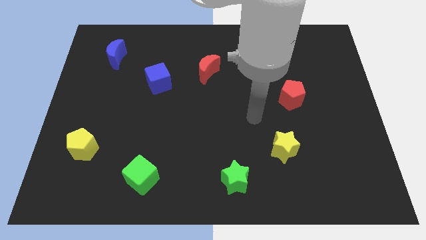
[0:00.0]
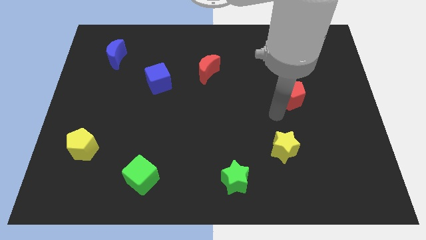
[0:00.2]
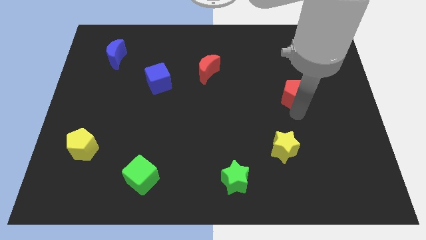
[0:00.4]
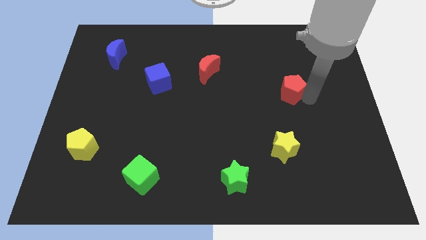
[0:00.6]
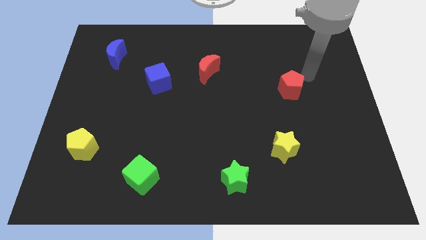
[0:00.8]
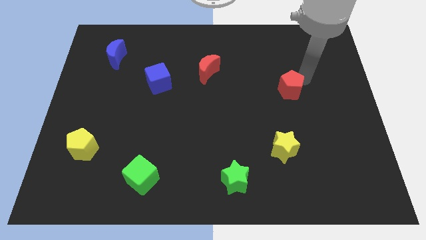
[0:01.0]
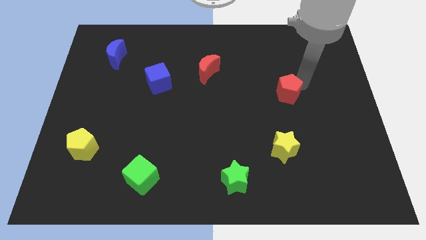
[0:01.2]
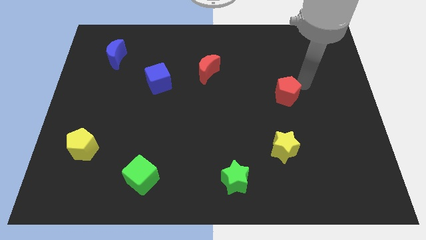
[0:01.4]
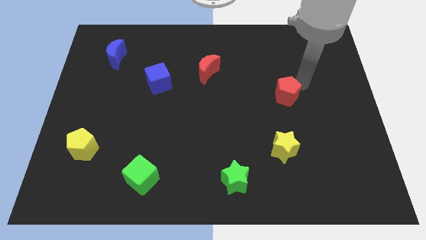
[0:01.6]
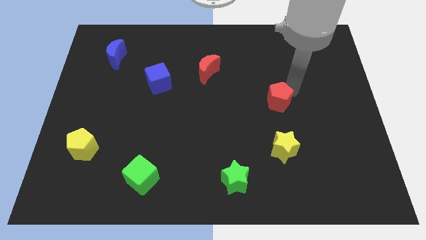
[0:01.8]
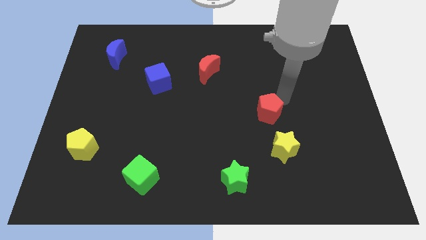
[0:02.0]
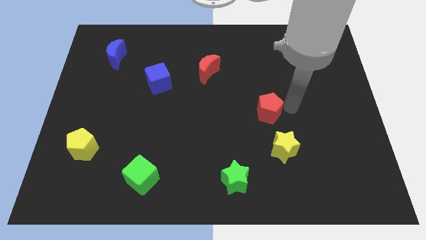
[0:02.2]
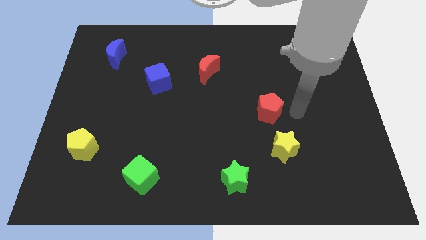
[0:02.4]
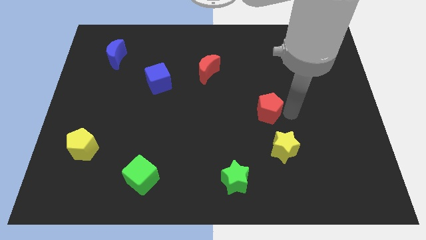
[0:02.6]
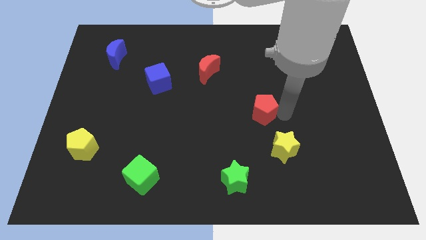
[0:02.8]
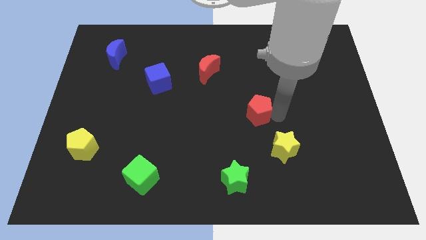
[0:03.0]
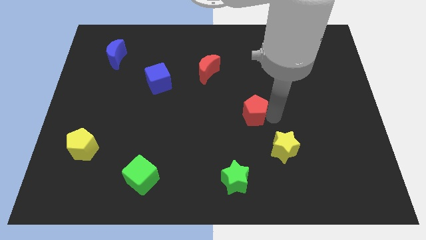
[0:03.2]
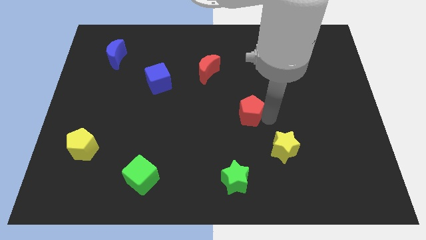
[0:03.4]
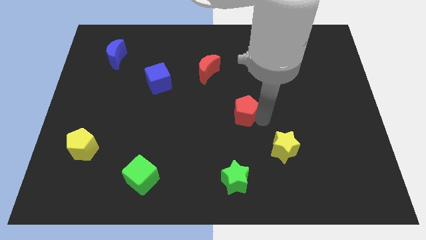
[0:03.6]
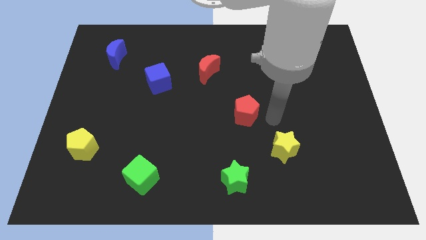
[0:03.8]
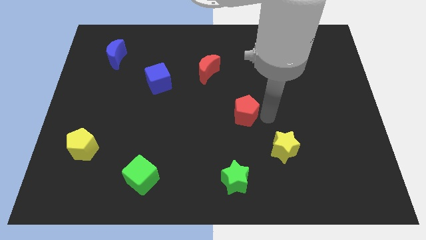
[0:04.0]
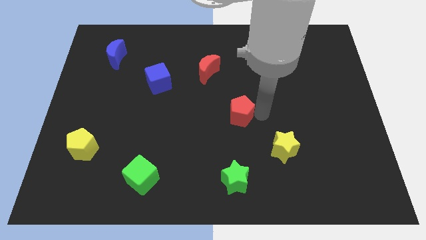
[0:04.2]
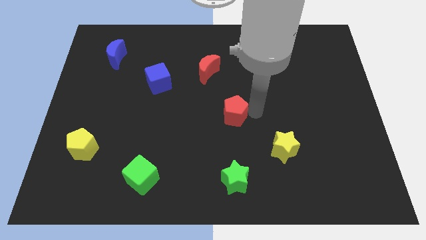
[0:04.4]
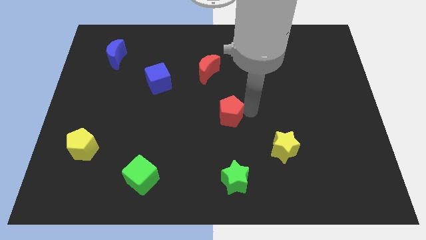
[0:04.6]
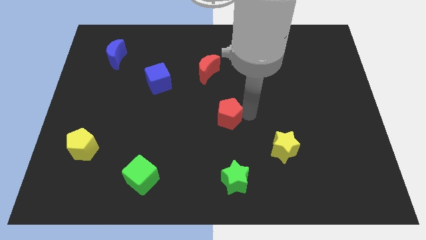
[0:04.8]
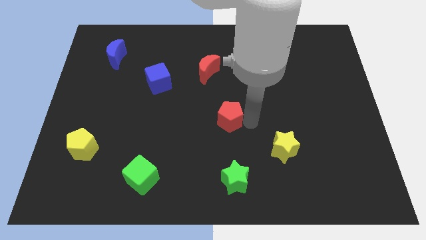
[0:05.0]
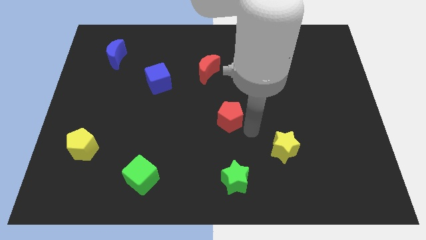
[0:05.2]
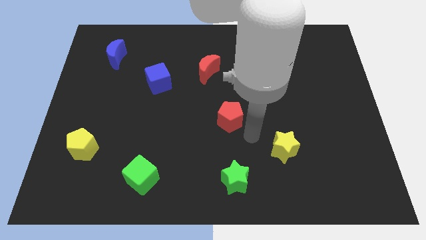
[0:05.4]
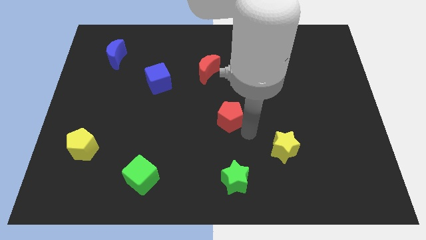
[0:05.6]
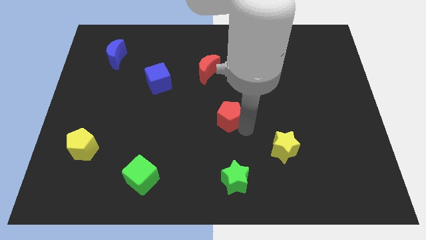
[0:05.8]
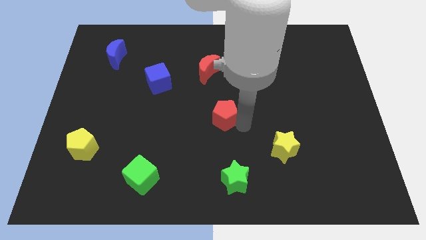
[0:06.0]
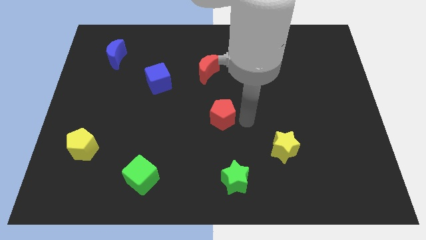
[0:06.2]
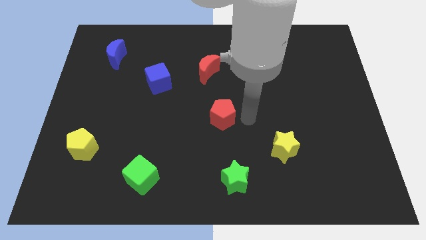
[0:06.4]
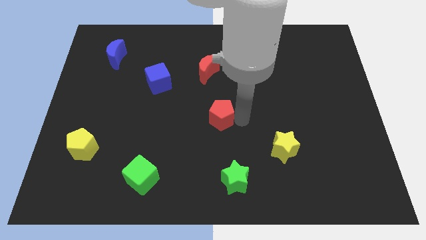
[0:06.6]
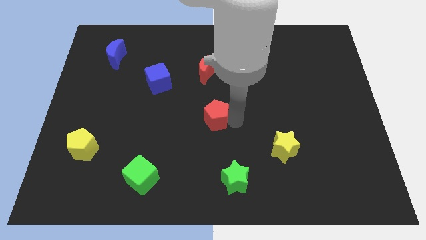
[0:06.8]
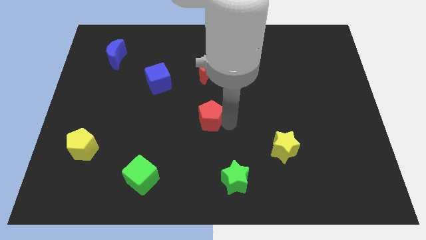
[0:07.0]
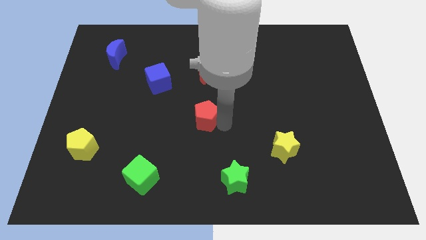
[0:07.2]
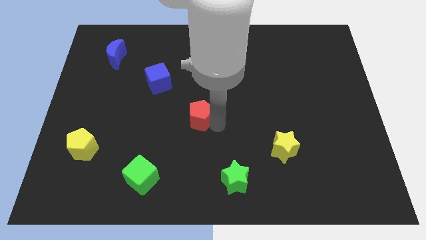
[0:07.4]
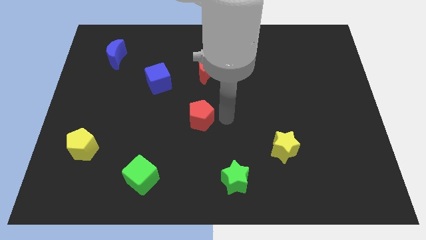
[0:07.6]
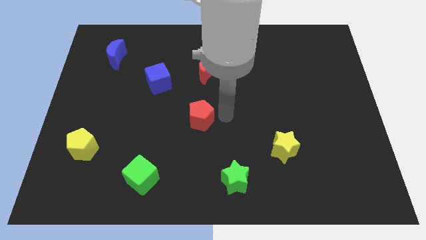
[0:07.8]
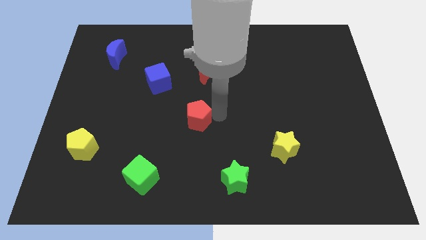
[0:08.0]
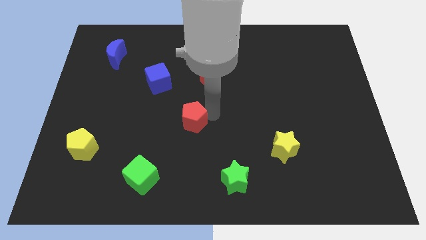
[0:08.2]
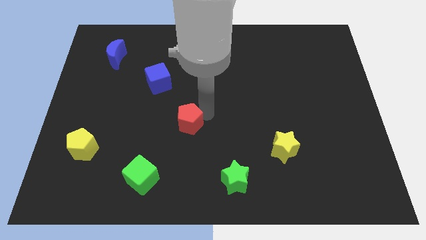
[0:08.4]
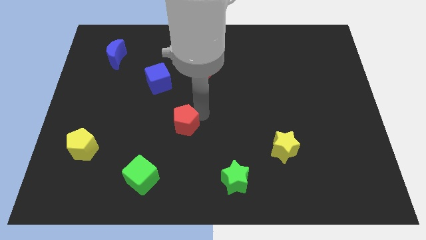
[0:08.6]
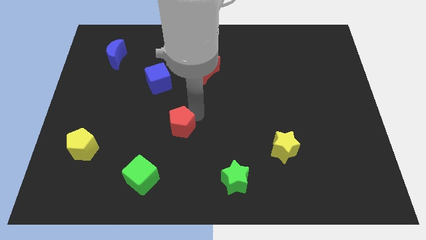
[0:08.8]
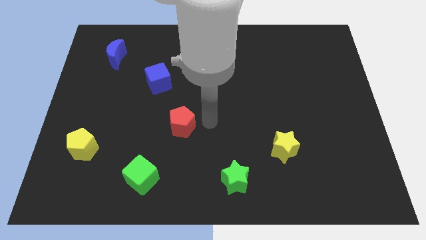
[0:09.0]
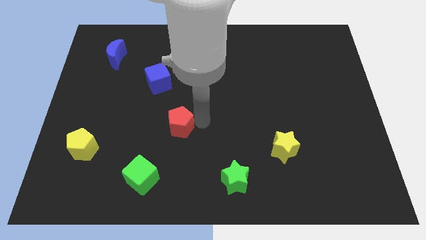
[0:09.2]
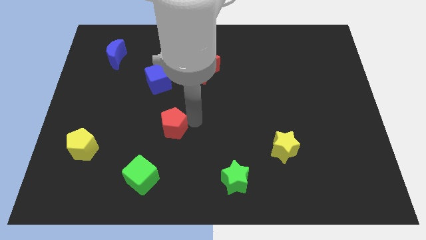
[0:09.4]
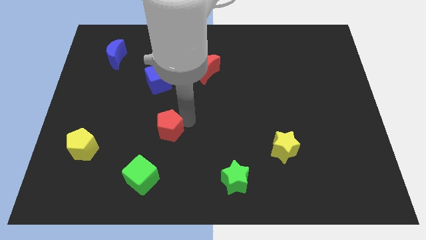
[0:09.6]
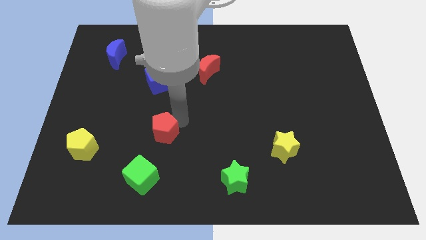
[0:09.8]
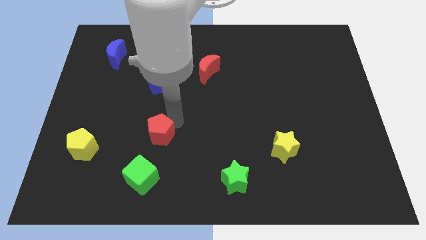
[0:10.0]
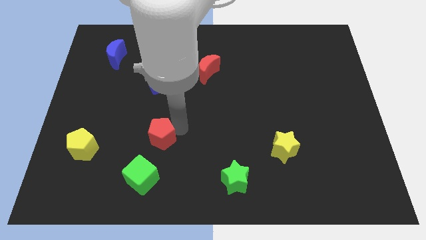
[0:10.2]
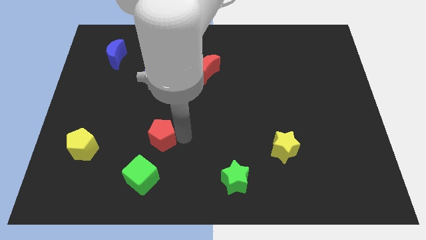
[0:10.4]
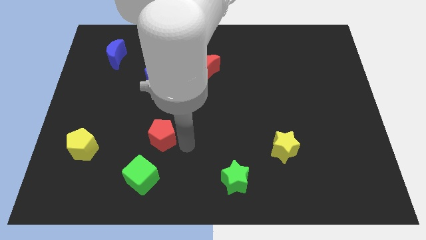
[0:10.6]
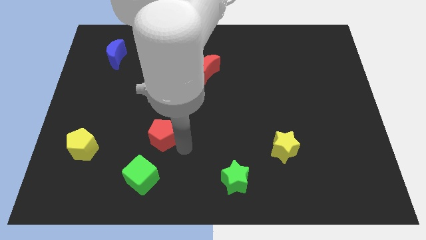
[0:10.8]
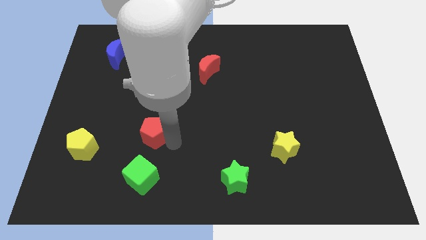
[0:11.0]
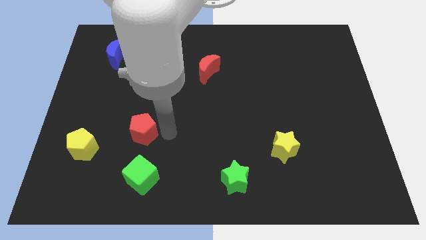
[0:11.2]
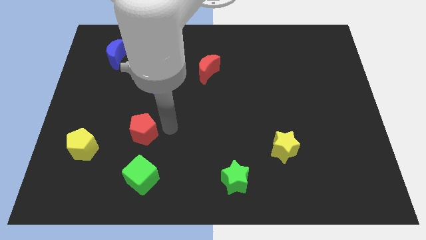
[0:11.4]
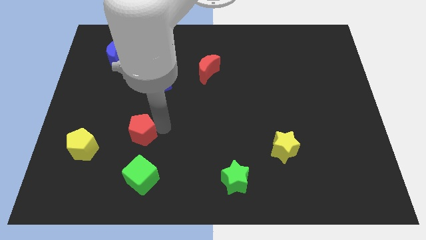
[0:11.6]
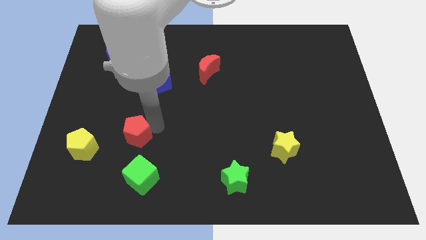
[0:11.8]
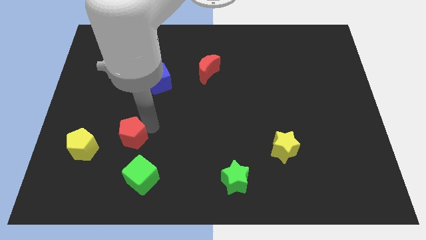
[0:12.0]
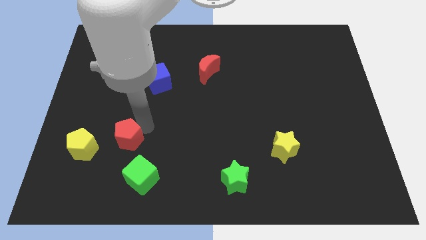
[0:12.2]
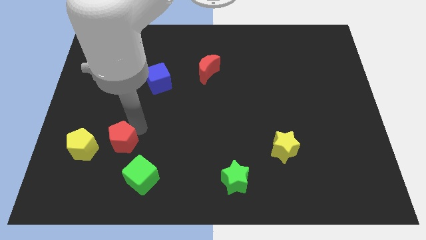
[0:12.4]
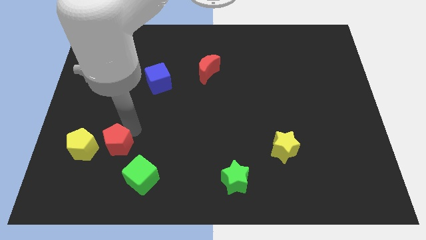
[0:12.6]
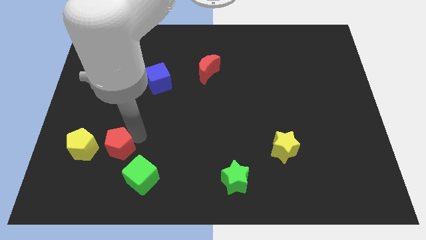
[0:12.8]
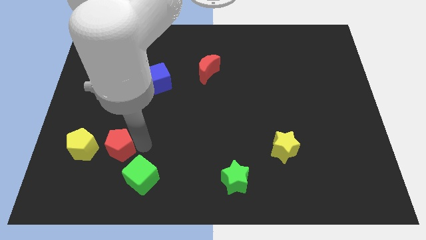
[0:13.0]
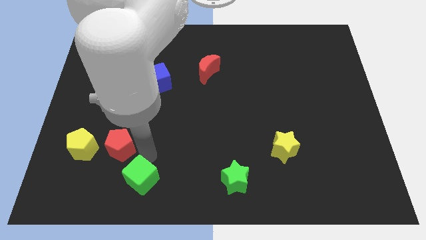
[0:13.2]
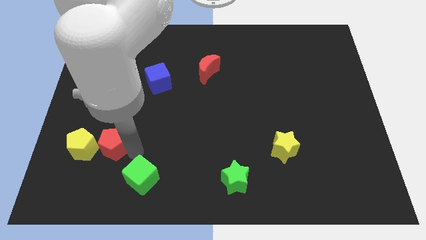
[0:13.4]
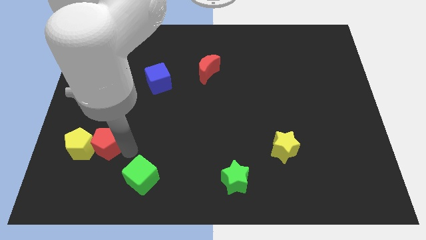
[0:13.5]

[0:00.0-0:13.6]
put the red pentagon to the yellow pentagon
